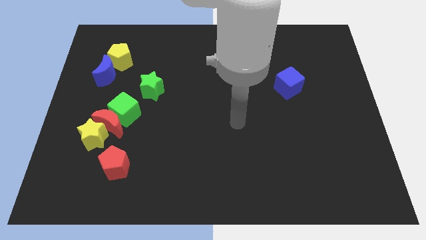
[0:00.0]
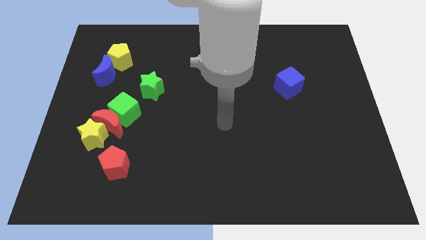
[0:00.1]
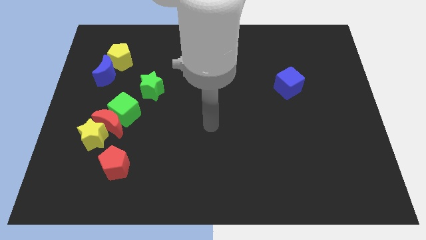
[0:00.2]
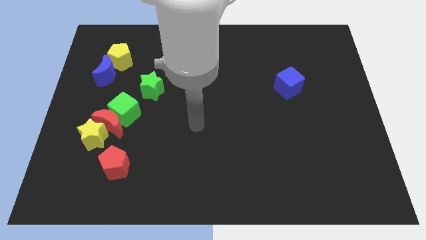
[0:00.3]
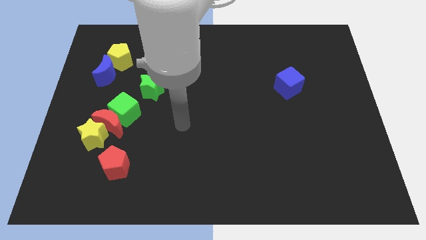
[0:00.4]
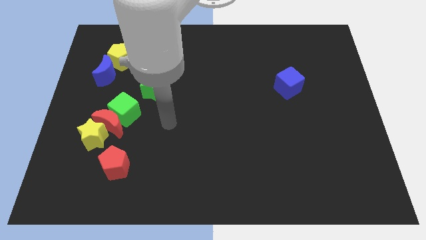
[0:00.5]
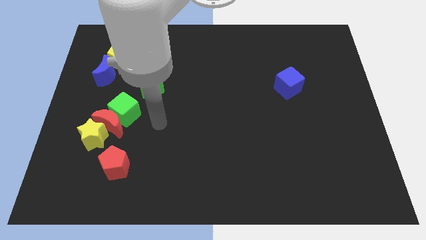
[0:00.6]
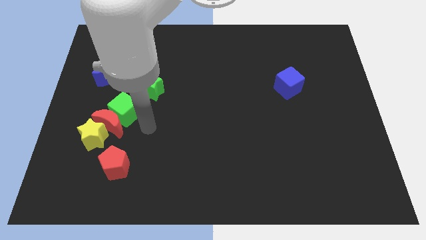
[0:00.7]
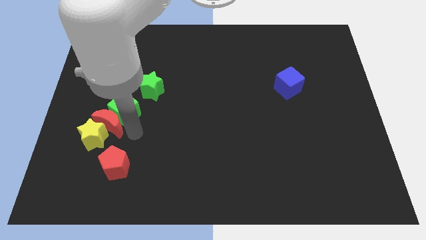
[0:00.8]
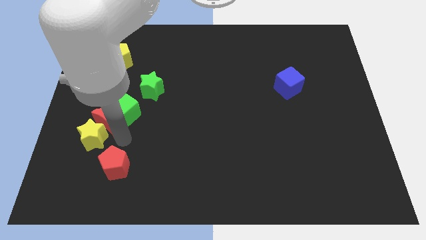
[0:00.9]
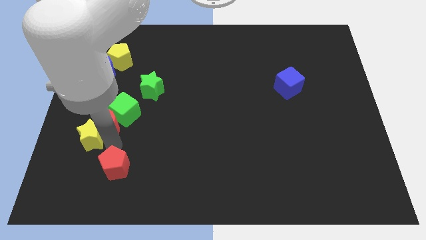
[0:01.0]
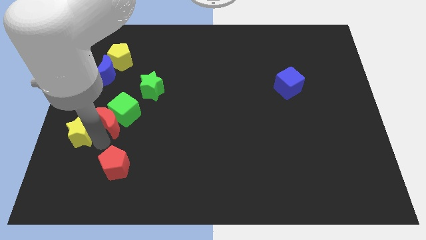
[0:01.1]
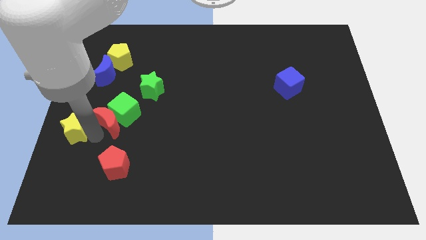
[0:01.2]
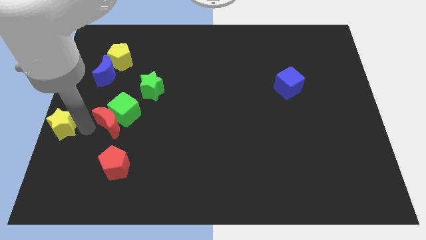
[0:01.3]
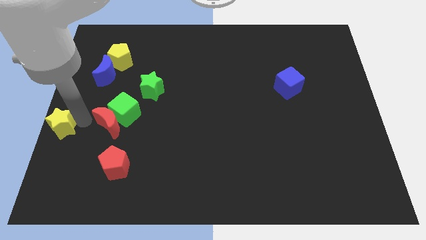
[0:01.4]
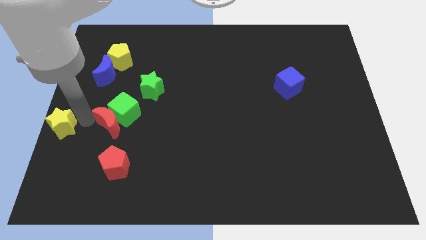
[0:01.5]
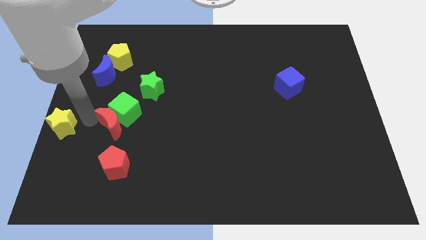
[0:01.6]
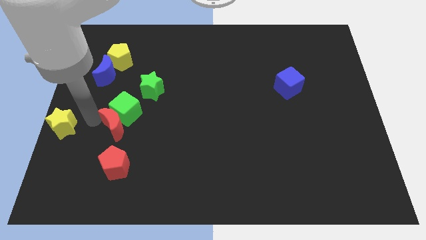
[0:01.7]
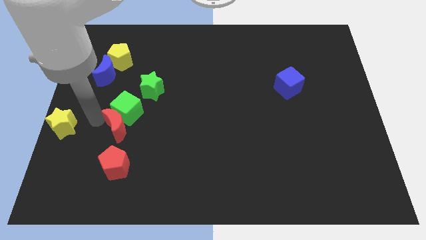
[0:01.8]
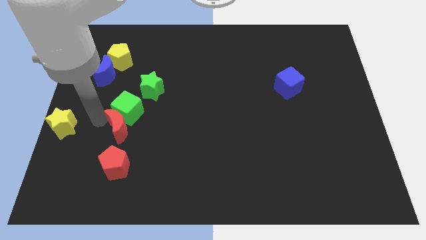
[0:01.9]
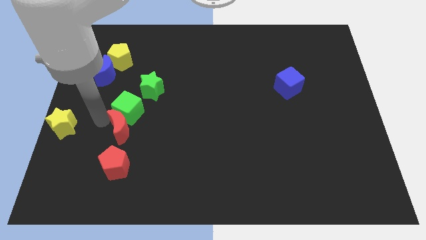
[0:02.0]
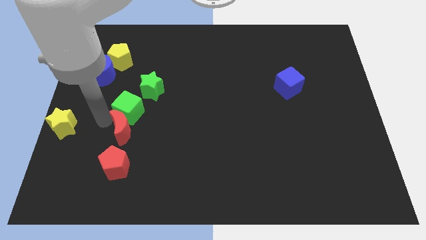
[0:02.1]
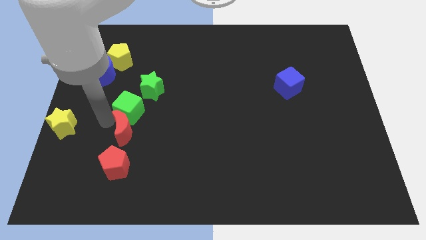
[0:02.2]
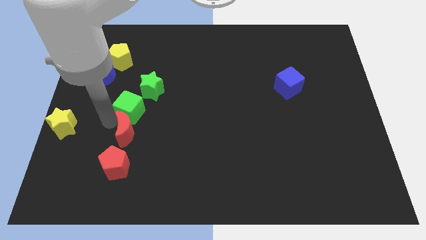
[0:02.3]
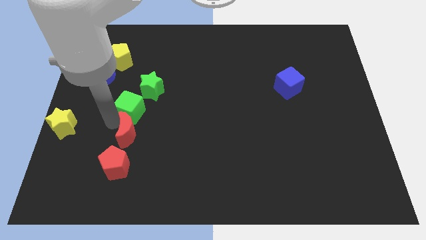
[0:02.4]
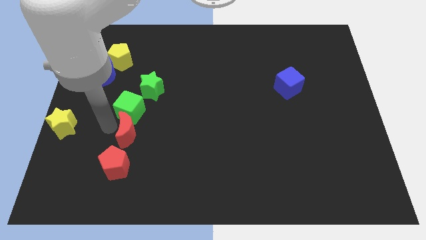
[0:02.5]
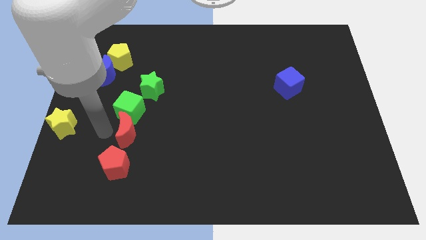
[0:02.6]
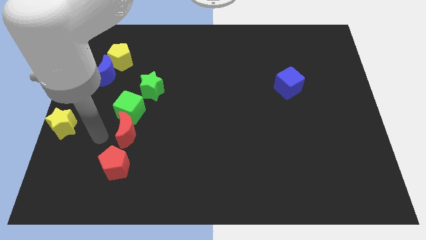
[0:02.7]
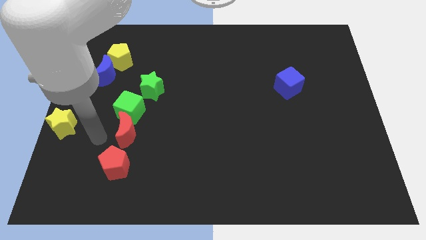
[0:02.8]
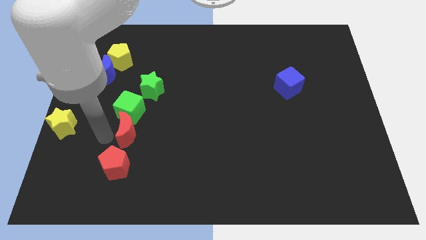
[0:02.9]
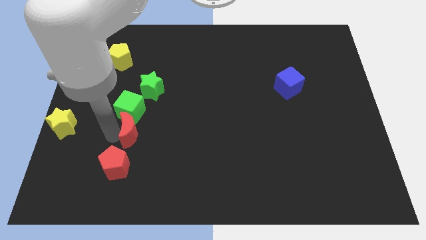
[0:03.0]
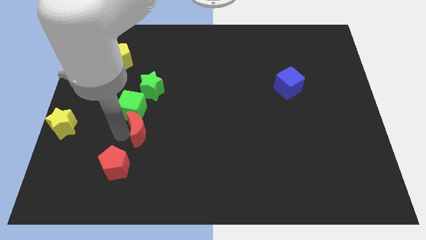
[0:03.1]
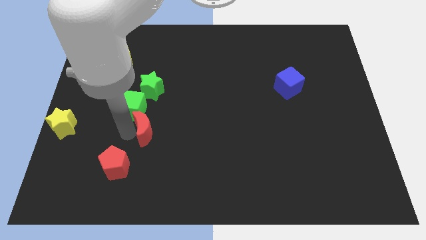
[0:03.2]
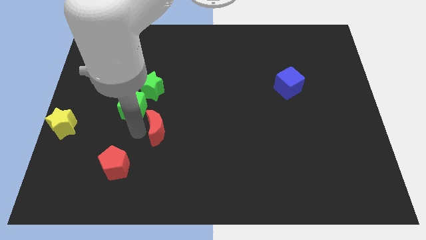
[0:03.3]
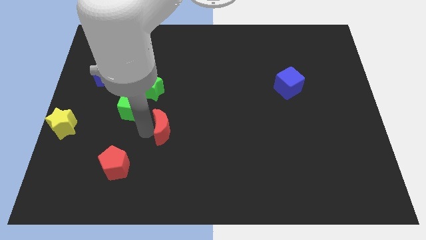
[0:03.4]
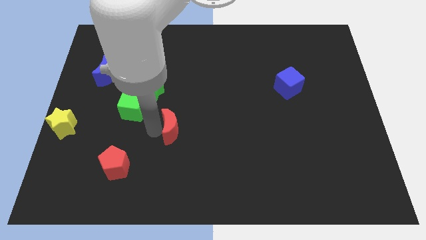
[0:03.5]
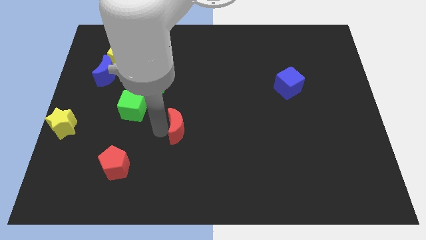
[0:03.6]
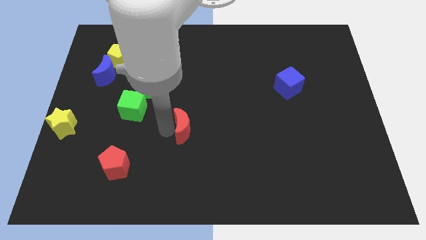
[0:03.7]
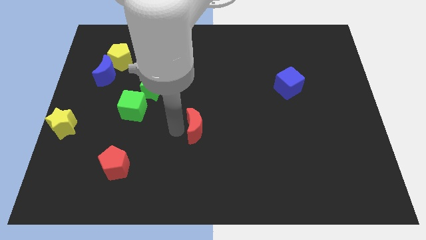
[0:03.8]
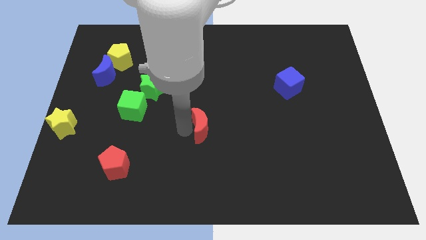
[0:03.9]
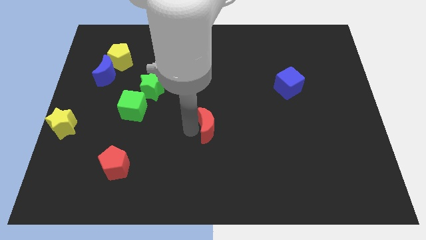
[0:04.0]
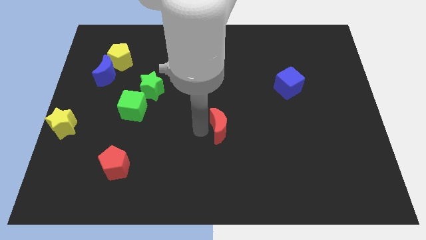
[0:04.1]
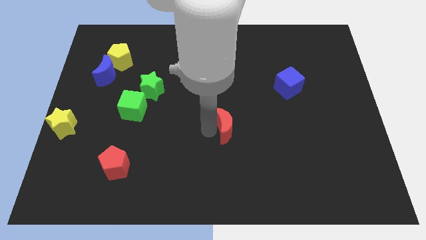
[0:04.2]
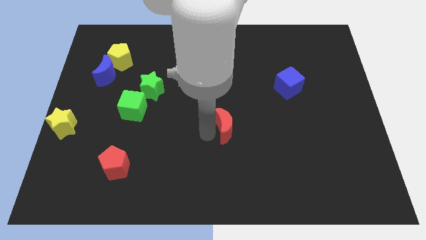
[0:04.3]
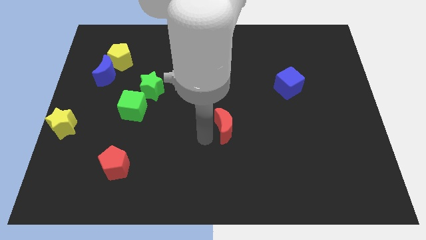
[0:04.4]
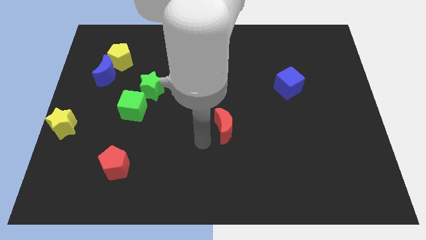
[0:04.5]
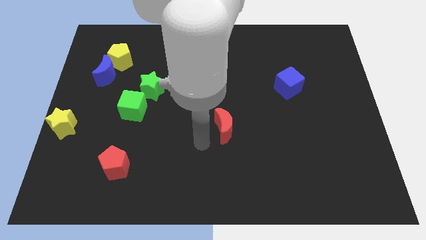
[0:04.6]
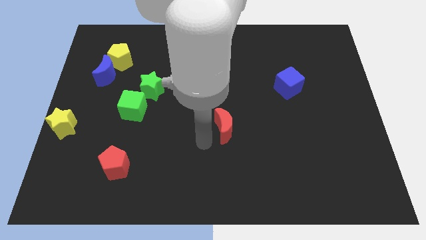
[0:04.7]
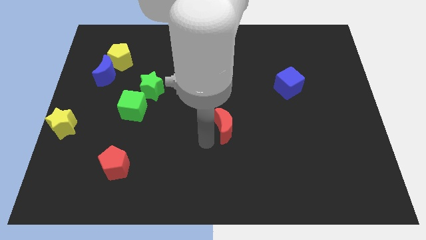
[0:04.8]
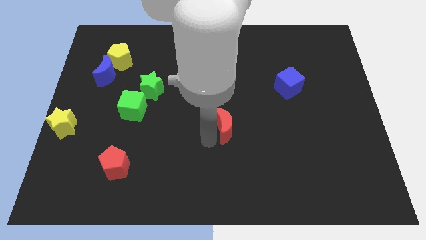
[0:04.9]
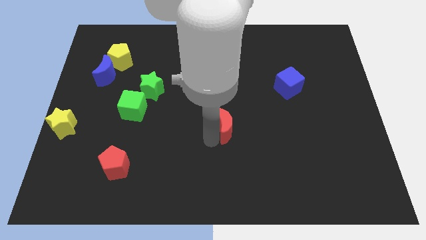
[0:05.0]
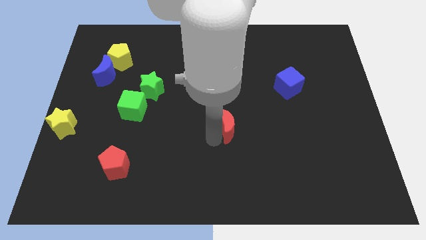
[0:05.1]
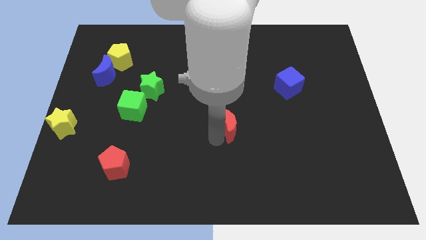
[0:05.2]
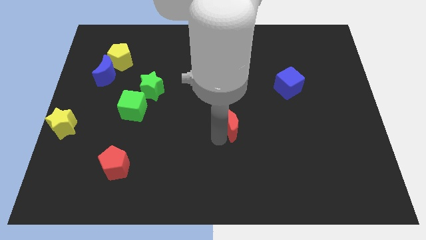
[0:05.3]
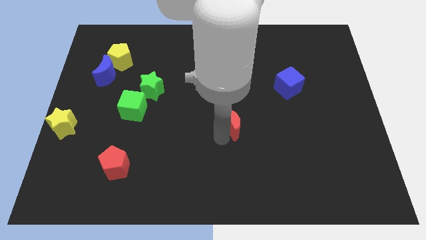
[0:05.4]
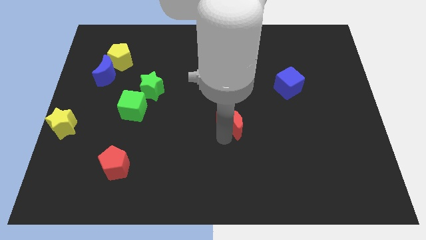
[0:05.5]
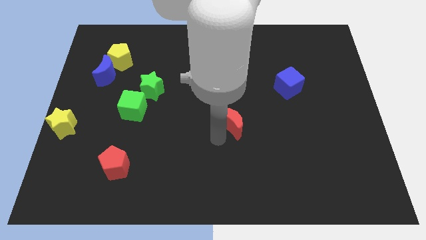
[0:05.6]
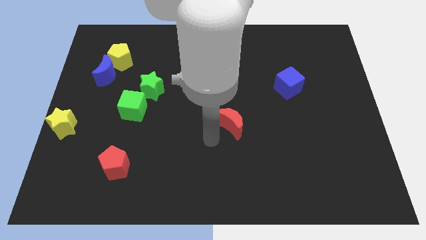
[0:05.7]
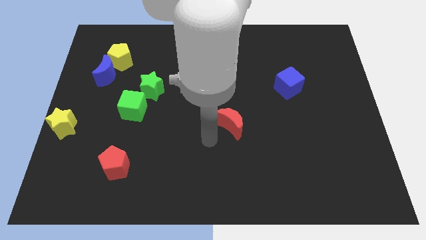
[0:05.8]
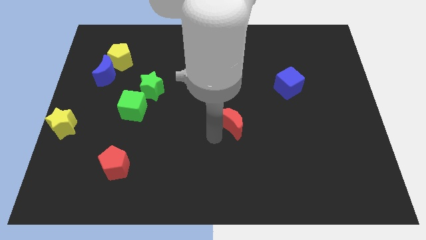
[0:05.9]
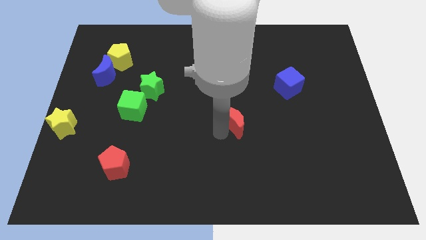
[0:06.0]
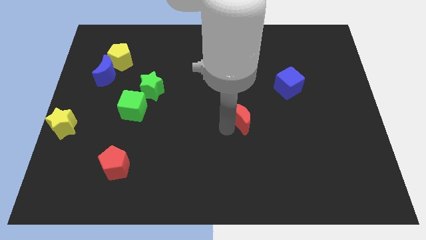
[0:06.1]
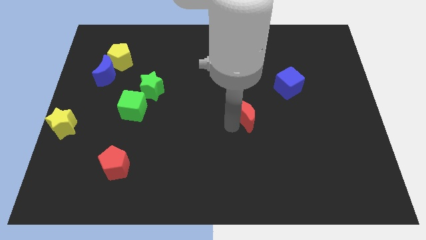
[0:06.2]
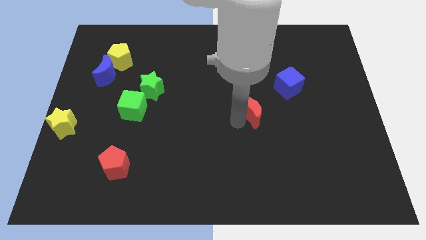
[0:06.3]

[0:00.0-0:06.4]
push the red moon to the bottom left side of the blue cube

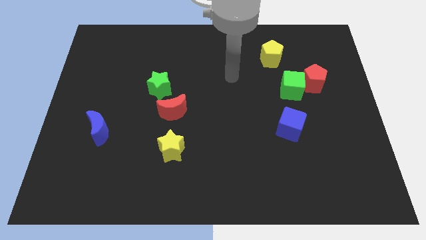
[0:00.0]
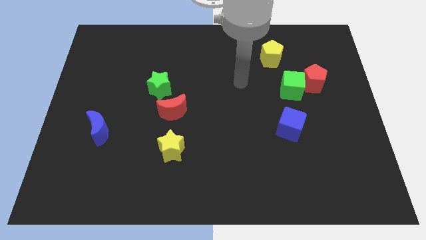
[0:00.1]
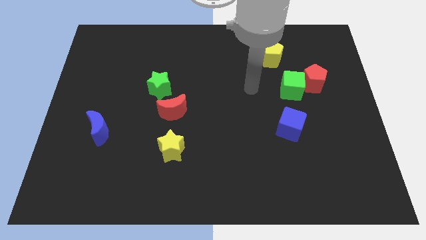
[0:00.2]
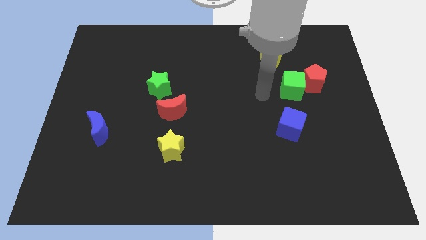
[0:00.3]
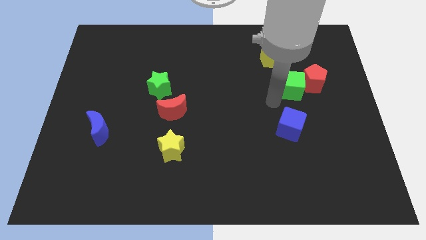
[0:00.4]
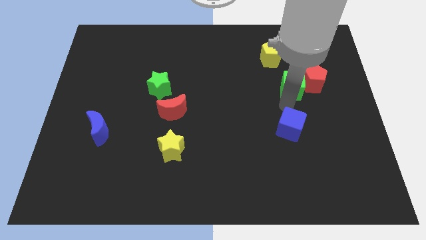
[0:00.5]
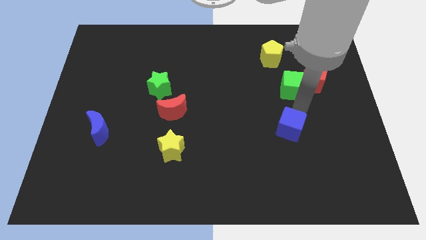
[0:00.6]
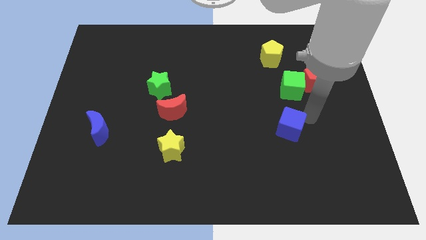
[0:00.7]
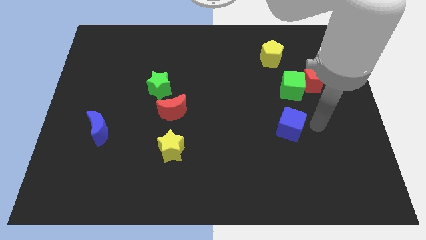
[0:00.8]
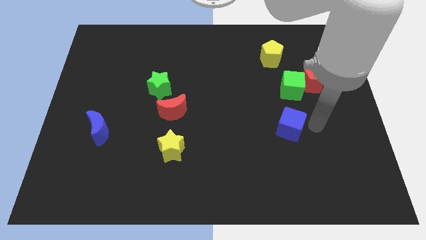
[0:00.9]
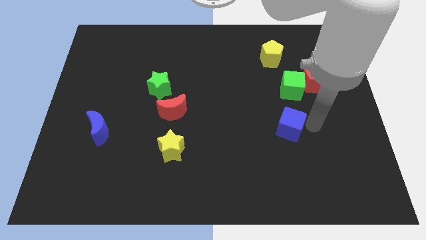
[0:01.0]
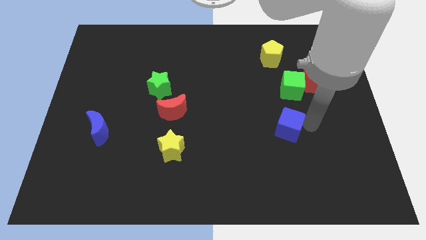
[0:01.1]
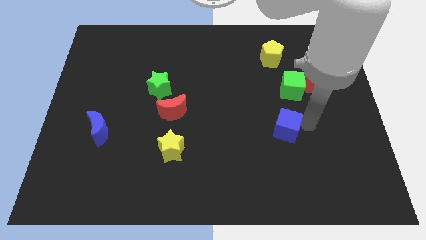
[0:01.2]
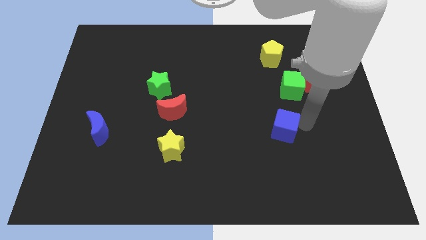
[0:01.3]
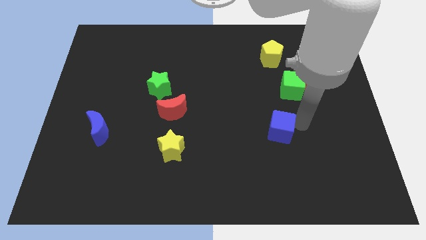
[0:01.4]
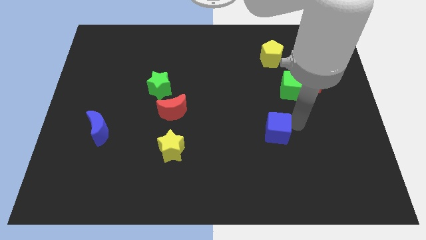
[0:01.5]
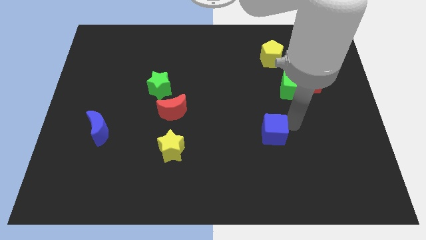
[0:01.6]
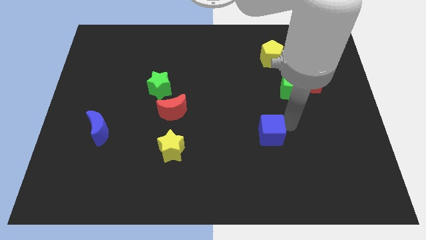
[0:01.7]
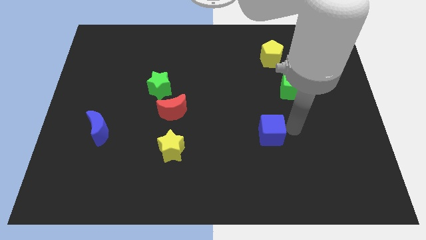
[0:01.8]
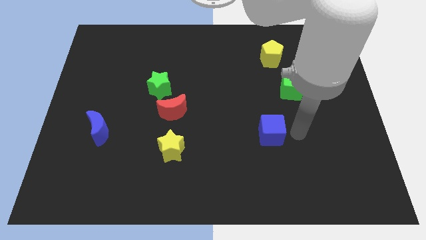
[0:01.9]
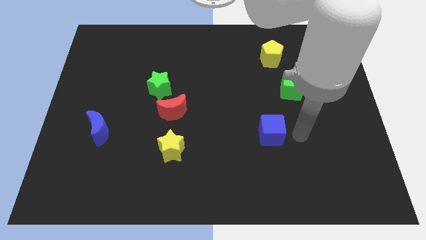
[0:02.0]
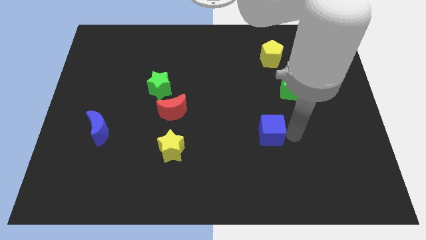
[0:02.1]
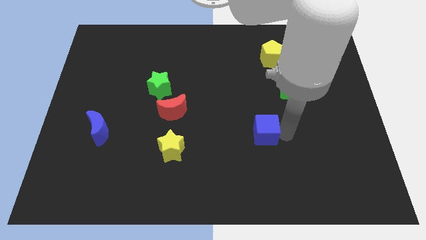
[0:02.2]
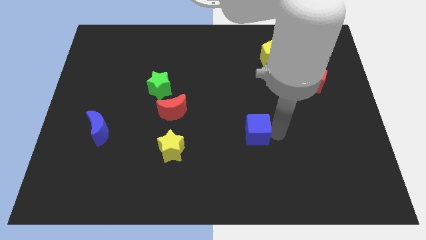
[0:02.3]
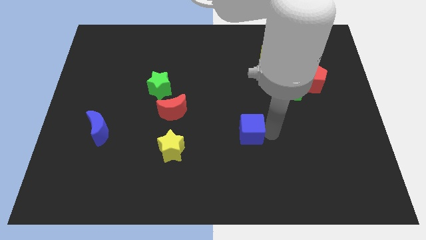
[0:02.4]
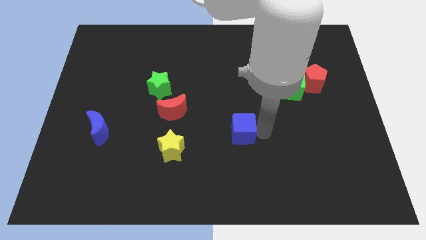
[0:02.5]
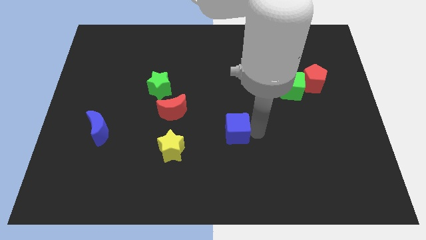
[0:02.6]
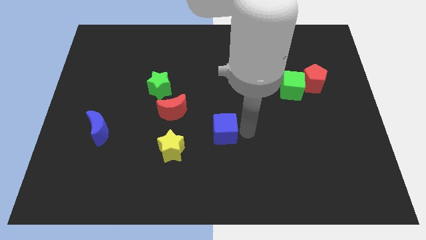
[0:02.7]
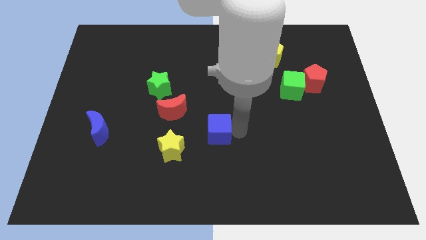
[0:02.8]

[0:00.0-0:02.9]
put the blue cube diagonally down and to the right of the red moon
